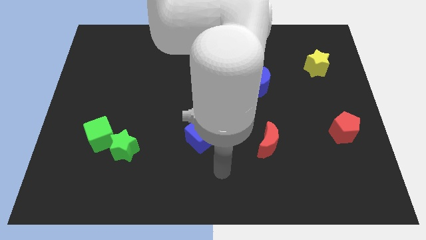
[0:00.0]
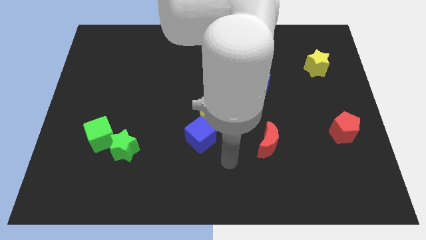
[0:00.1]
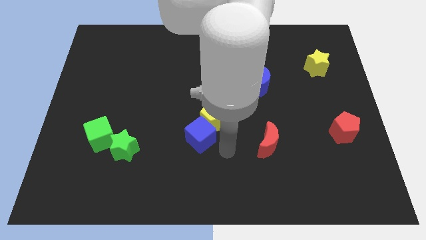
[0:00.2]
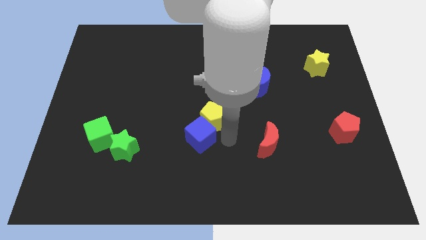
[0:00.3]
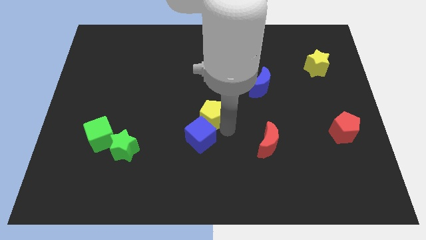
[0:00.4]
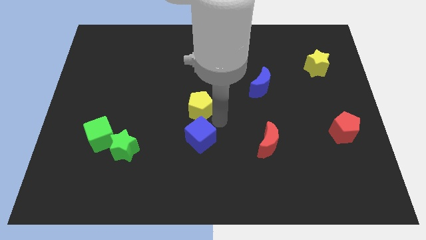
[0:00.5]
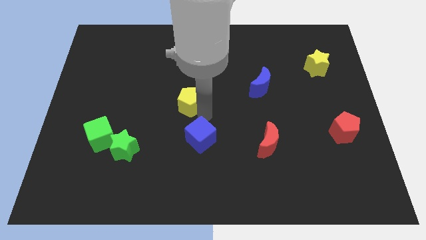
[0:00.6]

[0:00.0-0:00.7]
separate the blue cube from the yellow pentagon

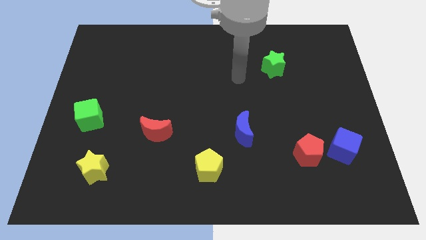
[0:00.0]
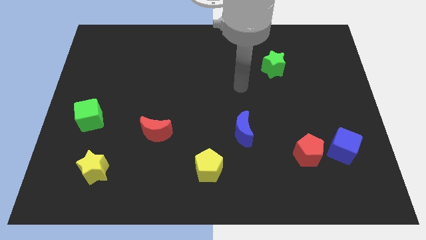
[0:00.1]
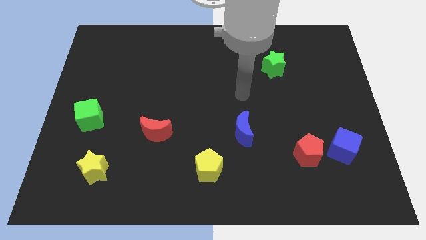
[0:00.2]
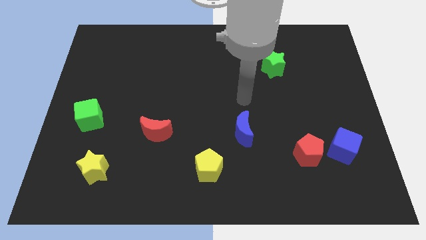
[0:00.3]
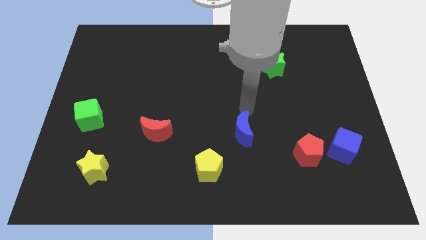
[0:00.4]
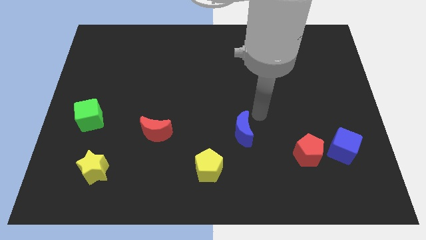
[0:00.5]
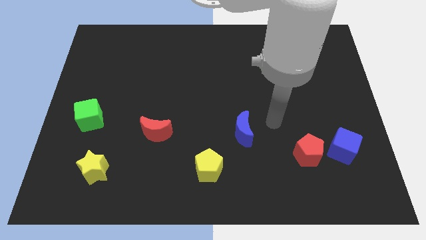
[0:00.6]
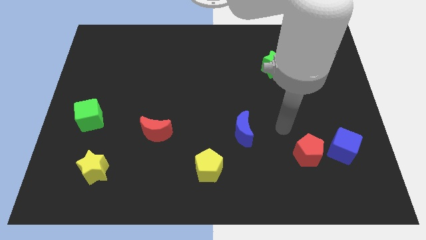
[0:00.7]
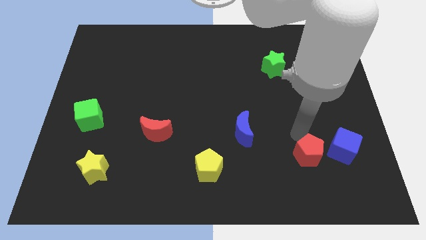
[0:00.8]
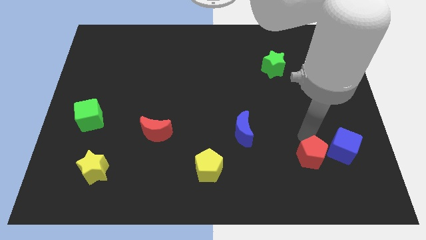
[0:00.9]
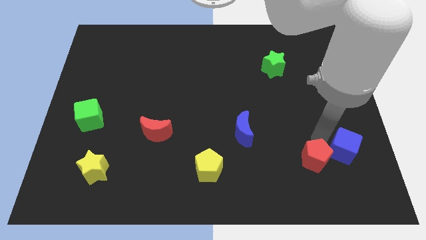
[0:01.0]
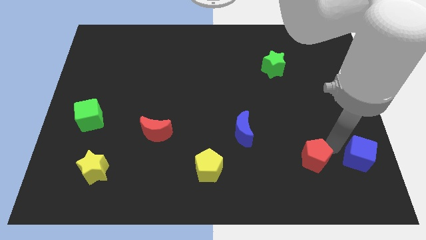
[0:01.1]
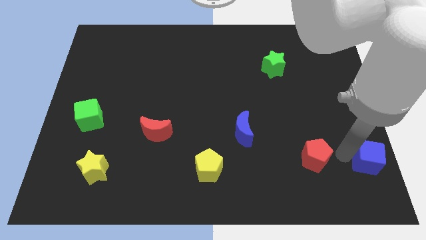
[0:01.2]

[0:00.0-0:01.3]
separate the red pentagon from the blue cube

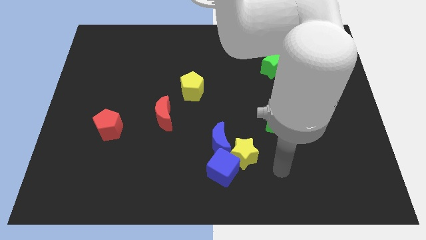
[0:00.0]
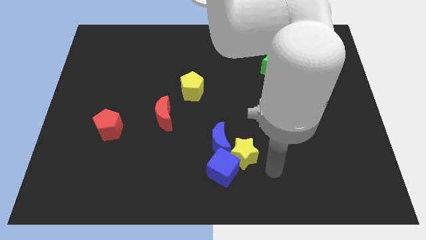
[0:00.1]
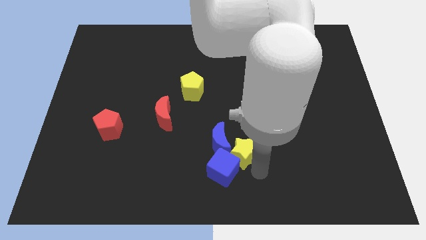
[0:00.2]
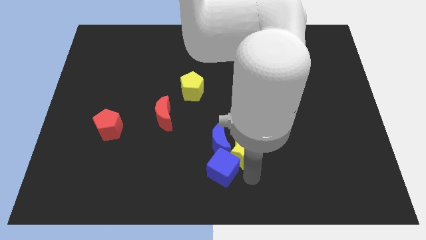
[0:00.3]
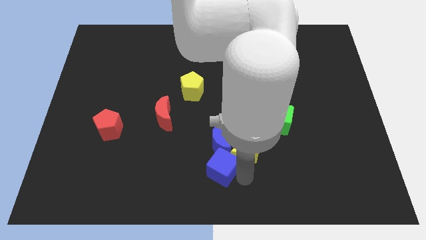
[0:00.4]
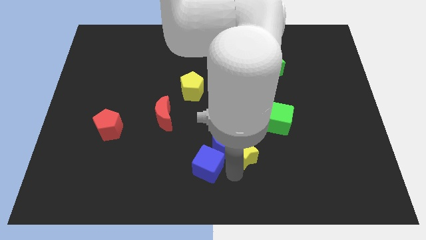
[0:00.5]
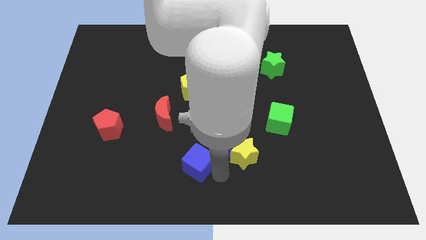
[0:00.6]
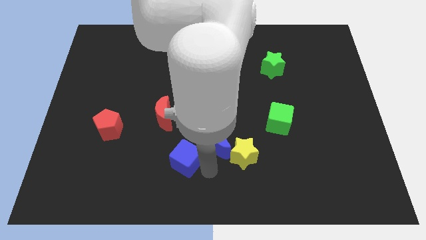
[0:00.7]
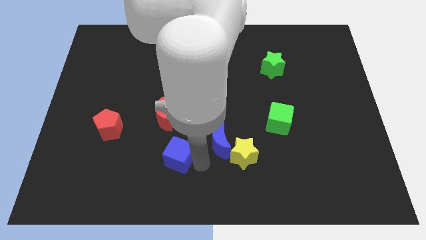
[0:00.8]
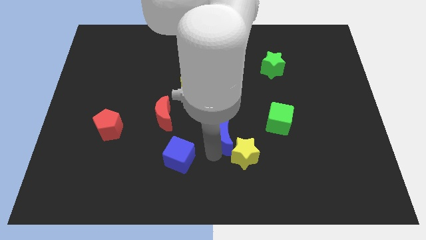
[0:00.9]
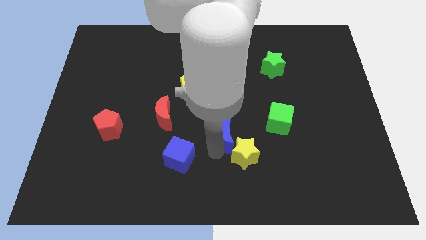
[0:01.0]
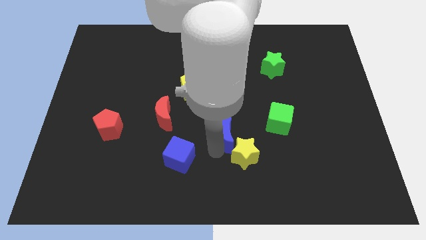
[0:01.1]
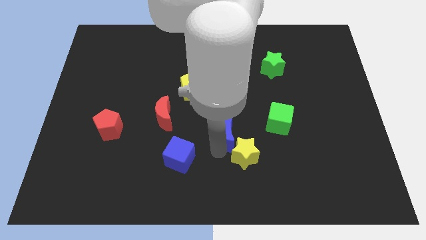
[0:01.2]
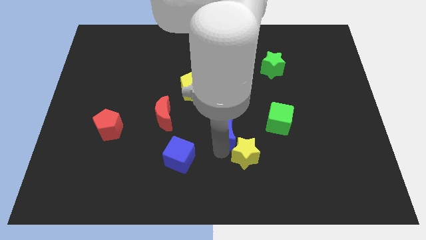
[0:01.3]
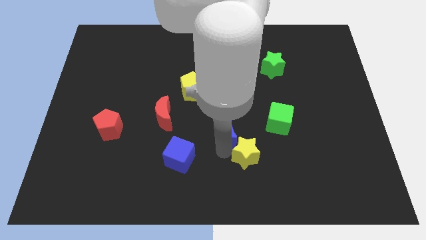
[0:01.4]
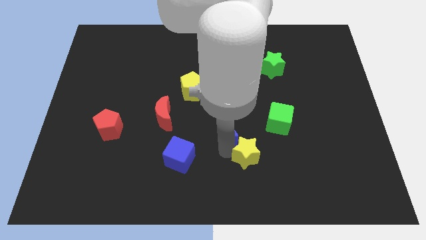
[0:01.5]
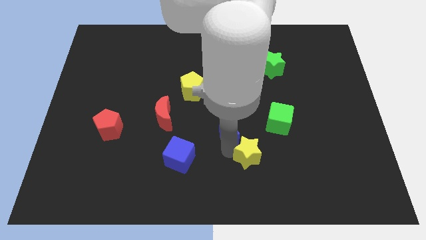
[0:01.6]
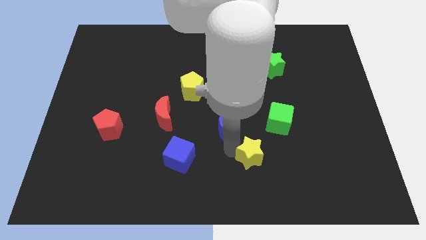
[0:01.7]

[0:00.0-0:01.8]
separate the yellow star from the blue cube and blue moon

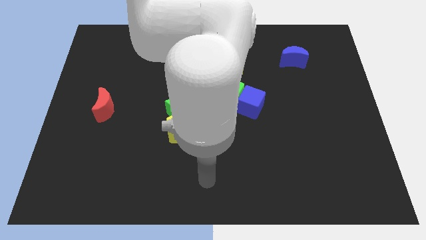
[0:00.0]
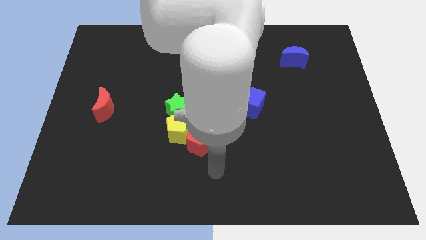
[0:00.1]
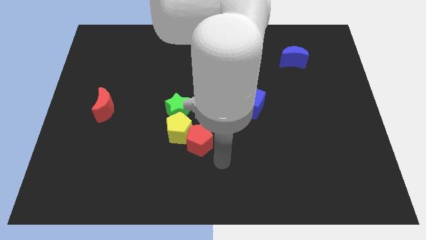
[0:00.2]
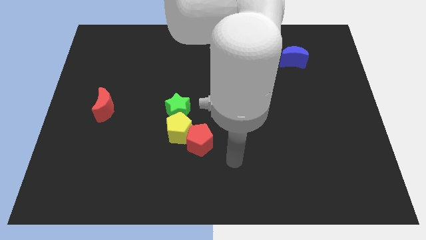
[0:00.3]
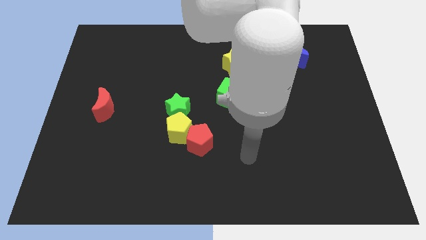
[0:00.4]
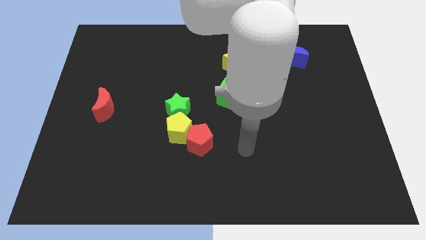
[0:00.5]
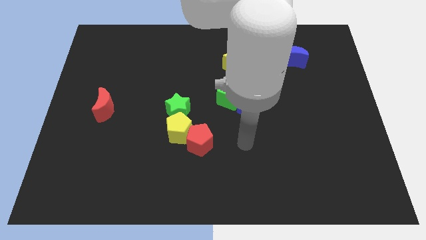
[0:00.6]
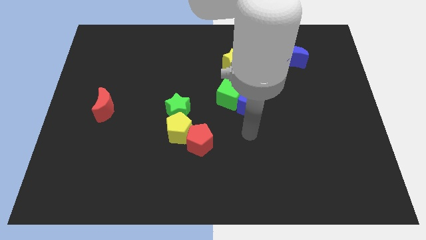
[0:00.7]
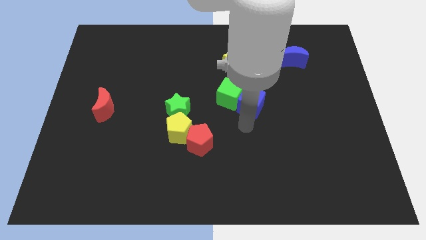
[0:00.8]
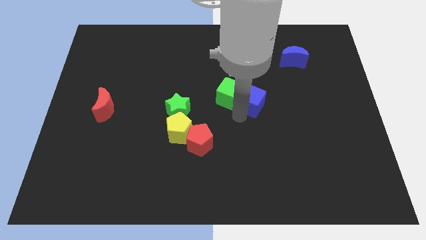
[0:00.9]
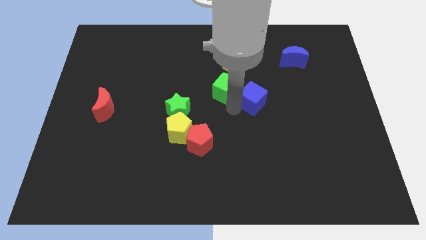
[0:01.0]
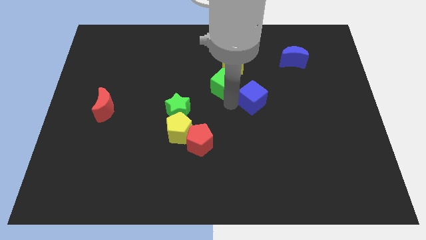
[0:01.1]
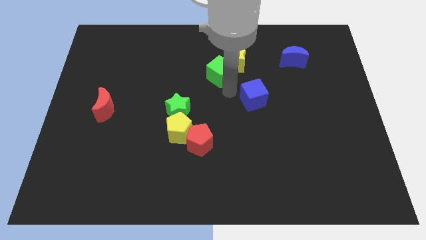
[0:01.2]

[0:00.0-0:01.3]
pull the blue cube apart from the green cube

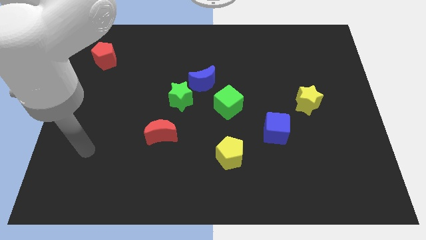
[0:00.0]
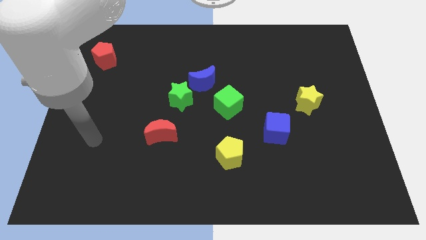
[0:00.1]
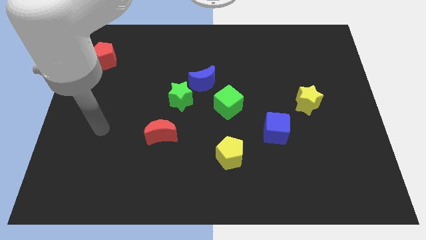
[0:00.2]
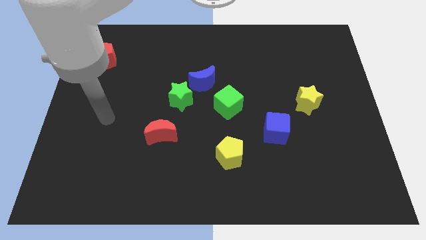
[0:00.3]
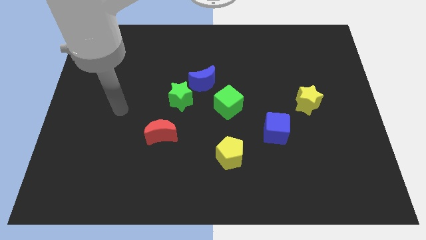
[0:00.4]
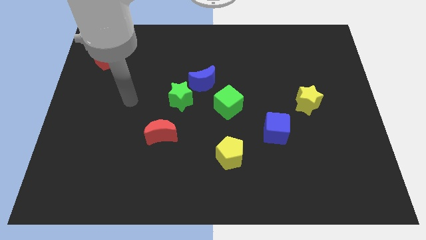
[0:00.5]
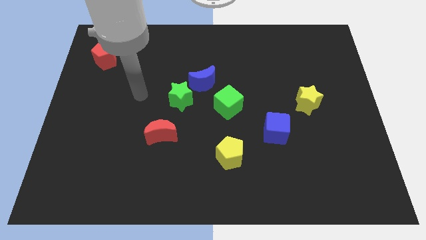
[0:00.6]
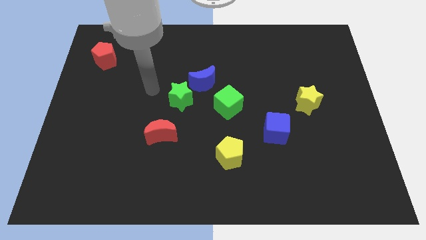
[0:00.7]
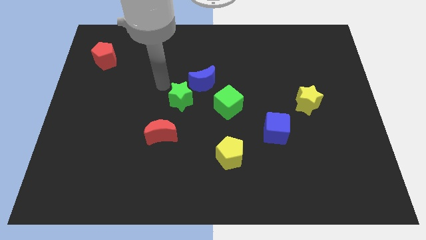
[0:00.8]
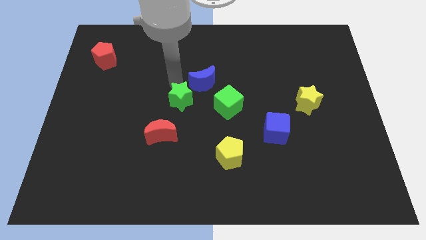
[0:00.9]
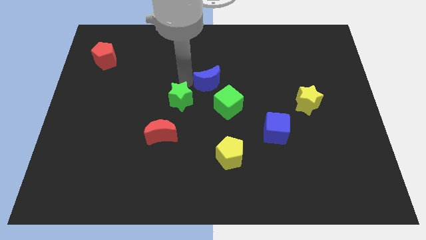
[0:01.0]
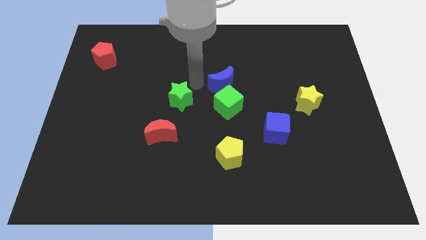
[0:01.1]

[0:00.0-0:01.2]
move the green star away from the blue moon

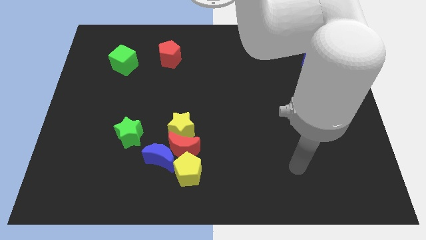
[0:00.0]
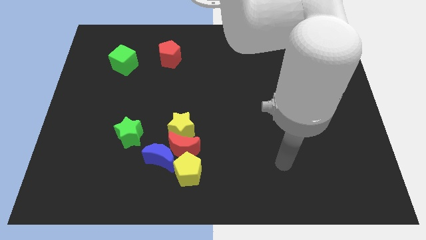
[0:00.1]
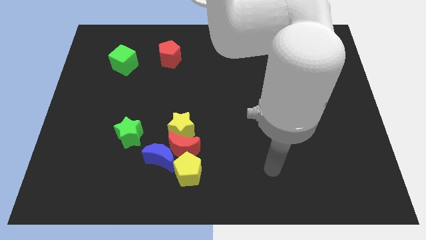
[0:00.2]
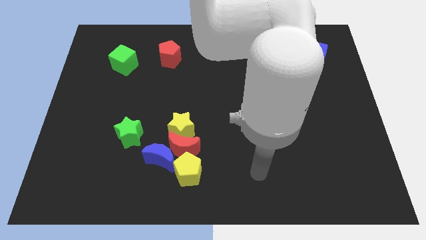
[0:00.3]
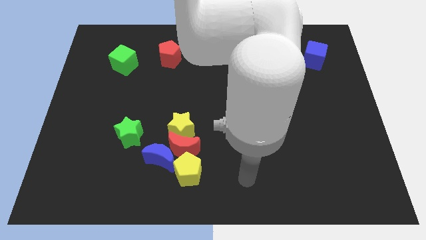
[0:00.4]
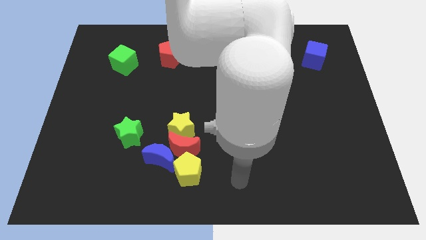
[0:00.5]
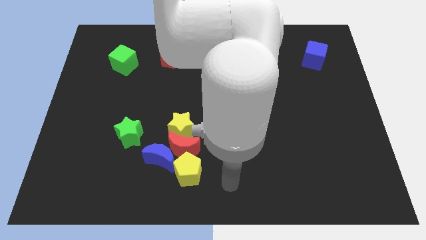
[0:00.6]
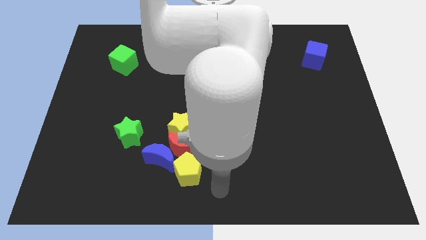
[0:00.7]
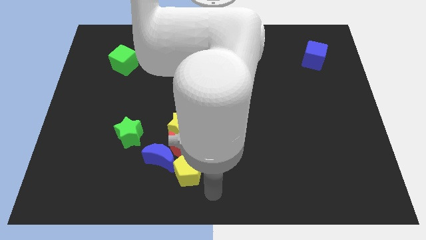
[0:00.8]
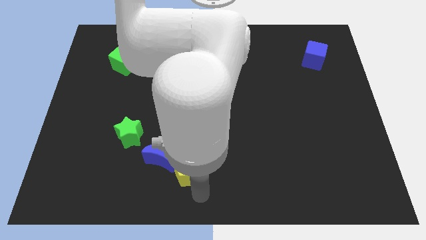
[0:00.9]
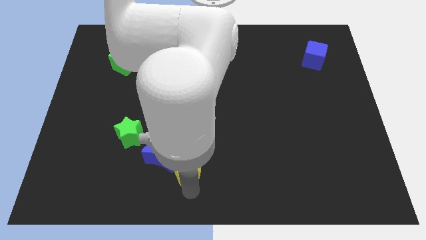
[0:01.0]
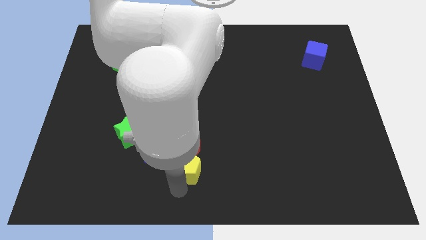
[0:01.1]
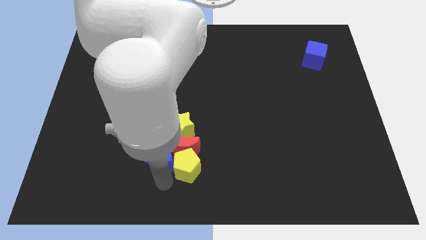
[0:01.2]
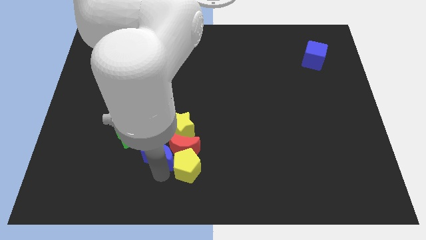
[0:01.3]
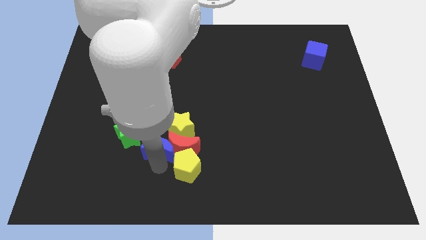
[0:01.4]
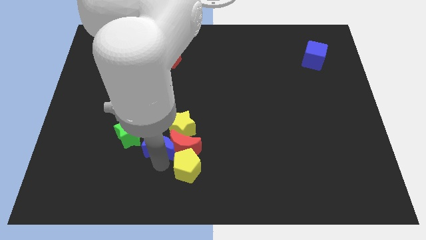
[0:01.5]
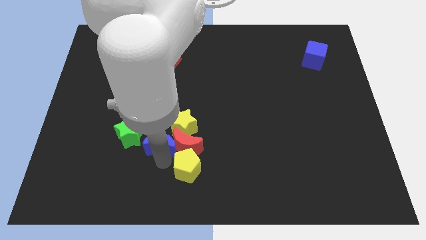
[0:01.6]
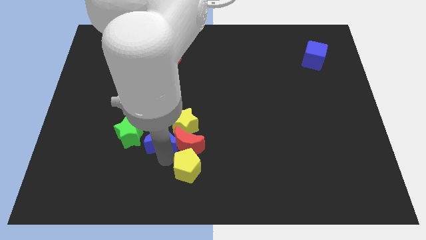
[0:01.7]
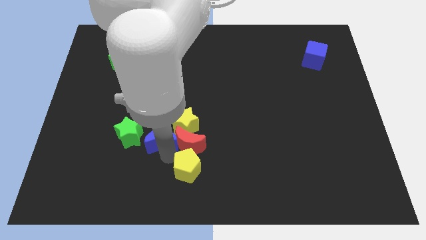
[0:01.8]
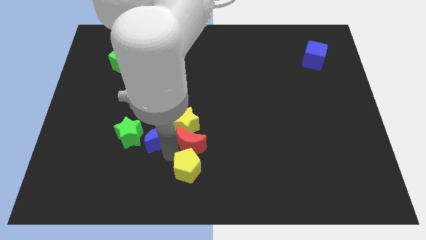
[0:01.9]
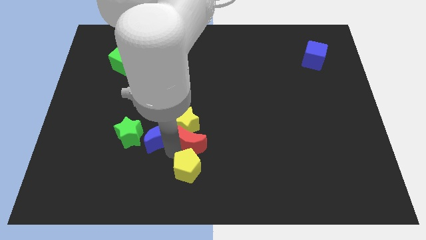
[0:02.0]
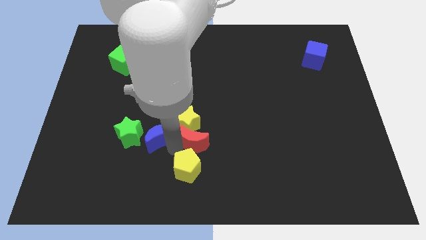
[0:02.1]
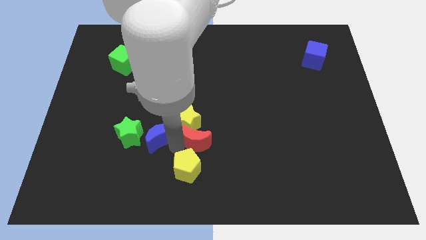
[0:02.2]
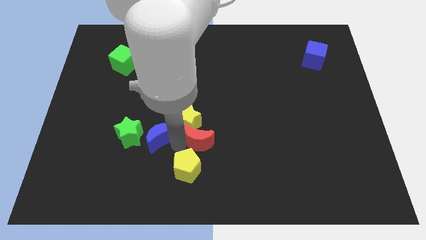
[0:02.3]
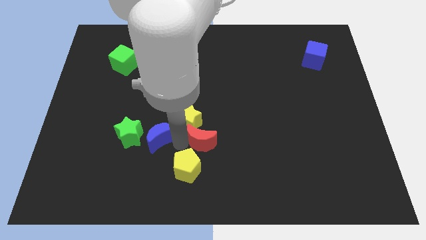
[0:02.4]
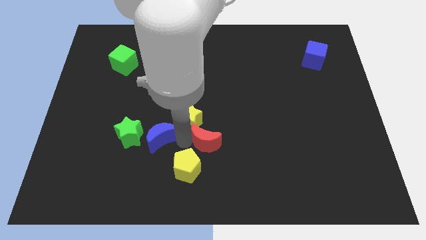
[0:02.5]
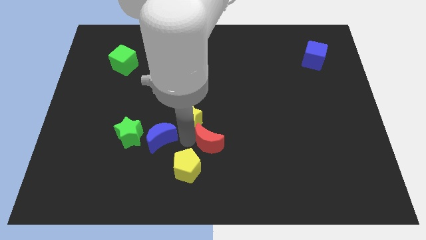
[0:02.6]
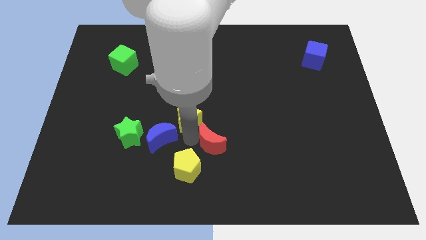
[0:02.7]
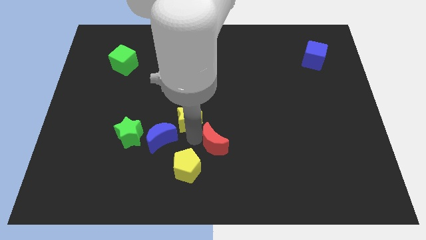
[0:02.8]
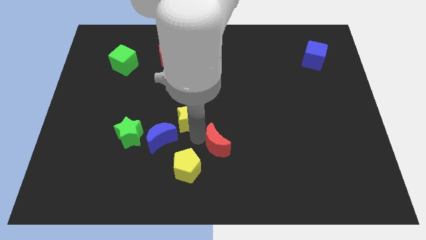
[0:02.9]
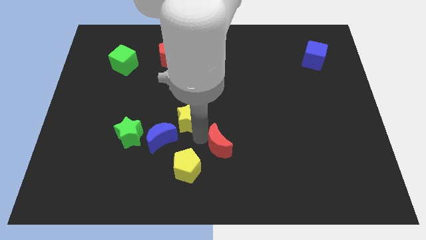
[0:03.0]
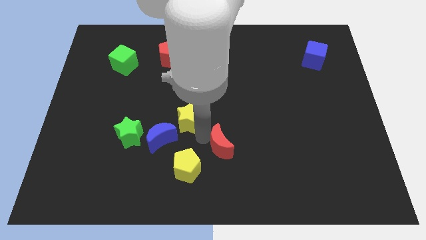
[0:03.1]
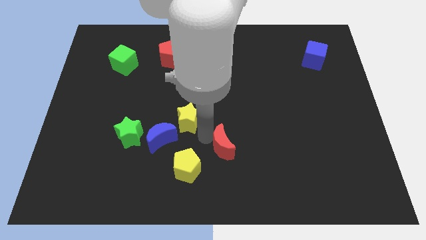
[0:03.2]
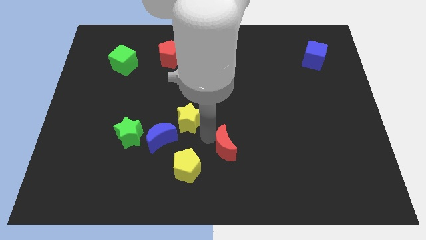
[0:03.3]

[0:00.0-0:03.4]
pull the red moon apart from the yellow star, blue moon, and yellow pentagon
